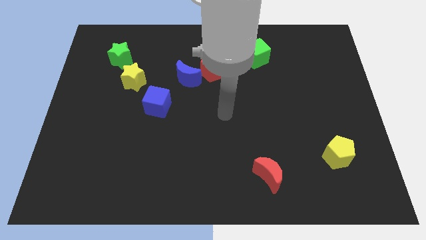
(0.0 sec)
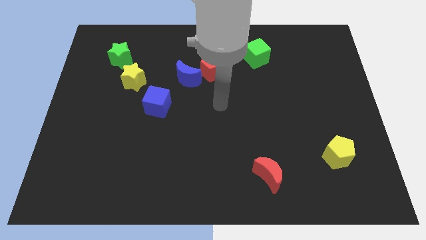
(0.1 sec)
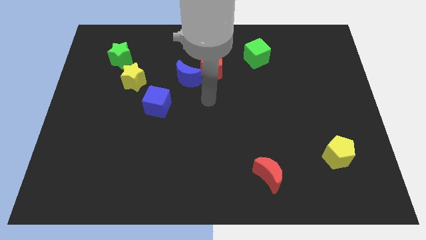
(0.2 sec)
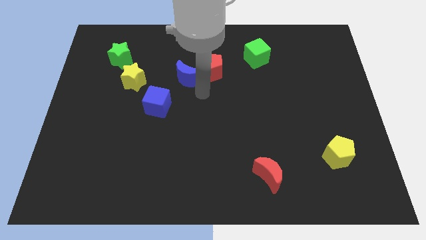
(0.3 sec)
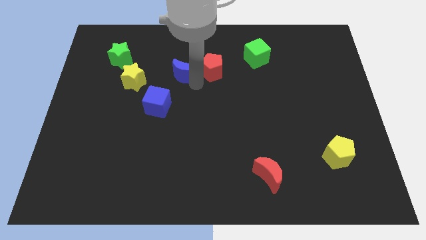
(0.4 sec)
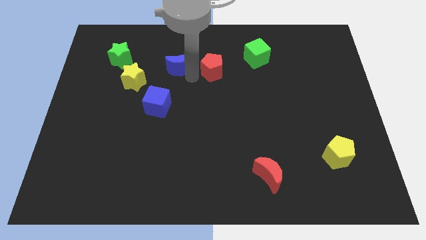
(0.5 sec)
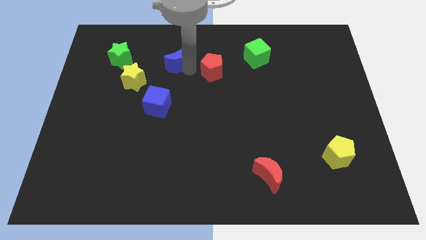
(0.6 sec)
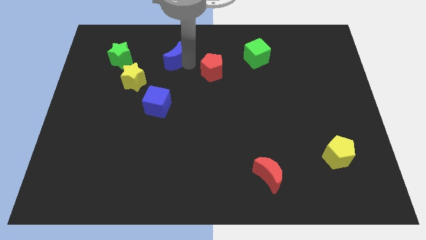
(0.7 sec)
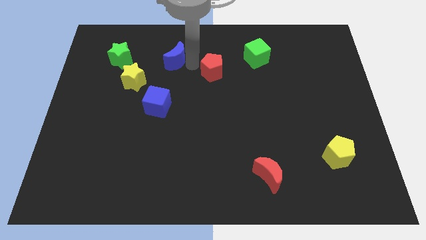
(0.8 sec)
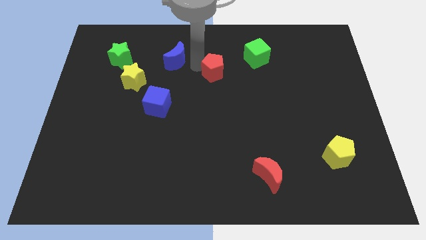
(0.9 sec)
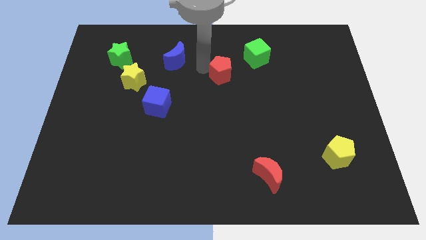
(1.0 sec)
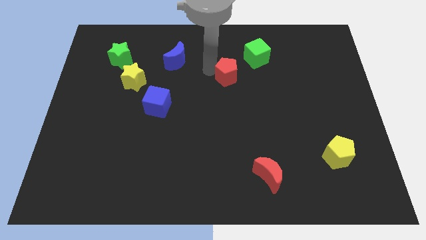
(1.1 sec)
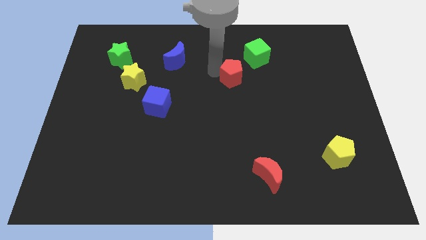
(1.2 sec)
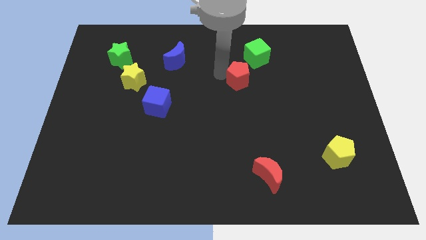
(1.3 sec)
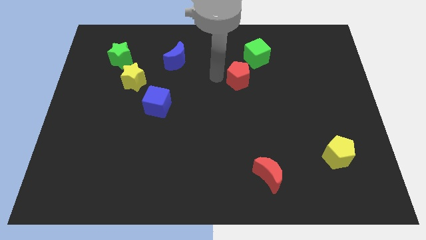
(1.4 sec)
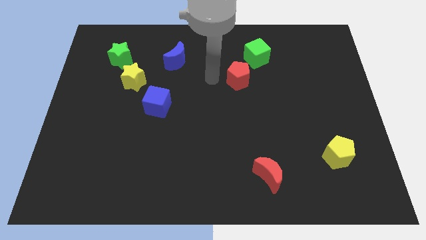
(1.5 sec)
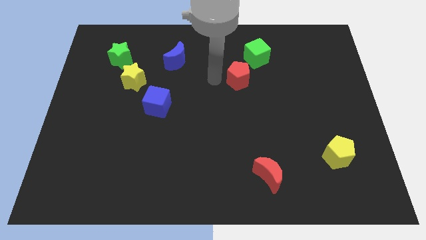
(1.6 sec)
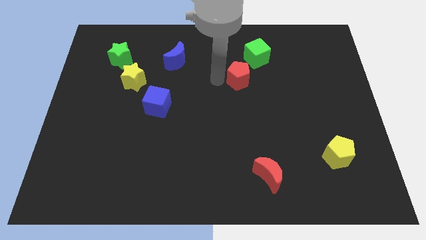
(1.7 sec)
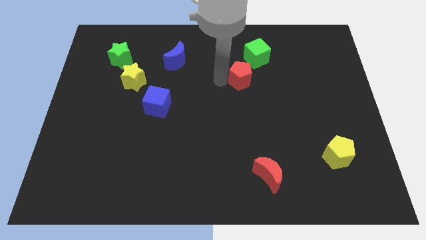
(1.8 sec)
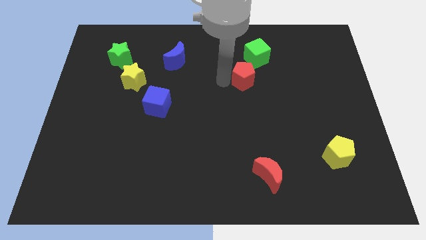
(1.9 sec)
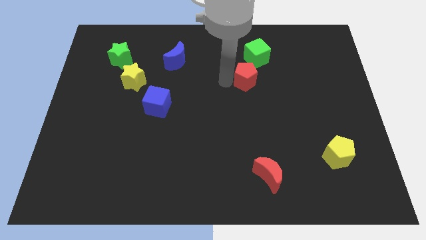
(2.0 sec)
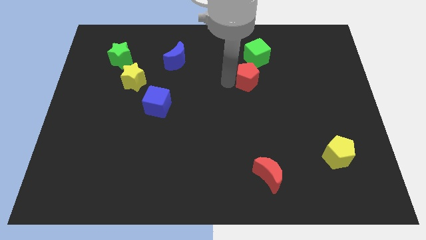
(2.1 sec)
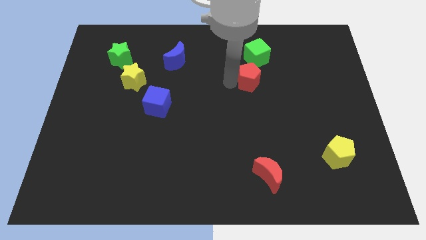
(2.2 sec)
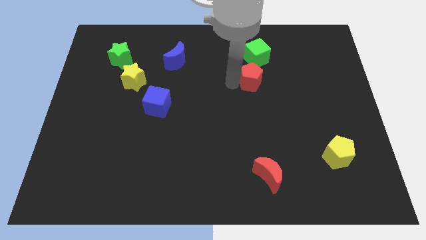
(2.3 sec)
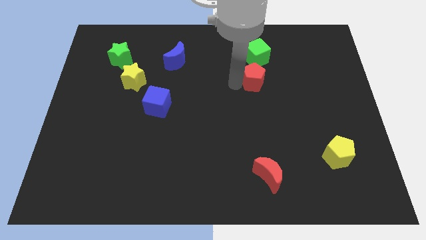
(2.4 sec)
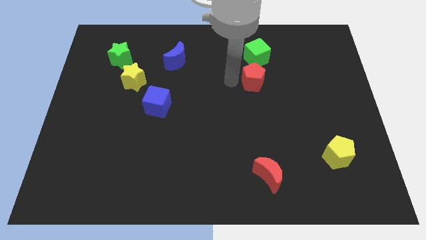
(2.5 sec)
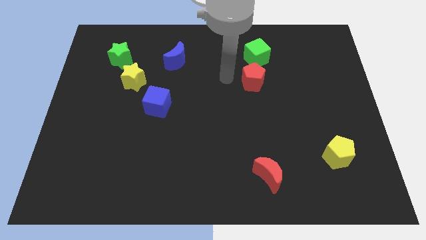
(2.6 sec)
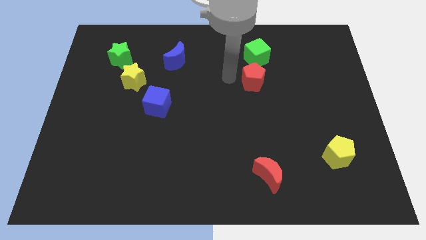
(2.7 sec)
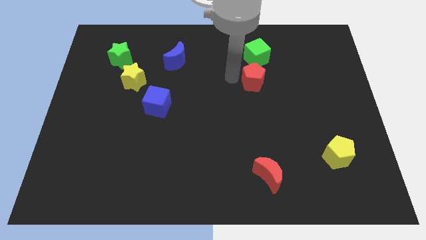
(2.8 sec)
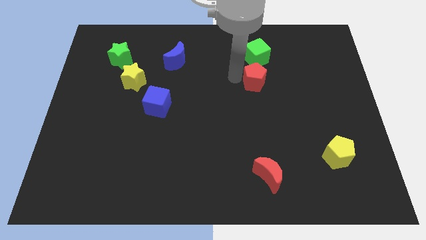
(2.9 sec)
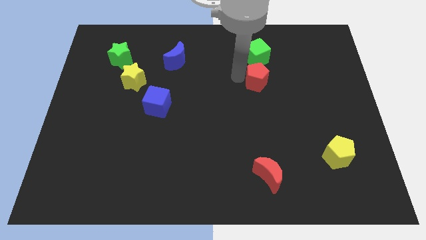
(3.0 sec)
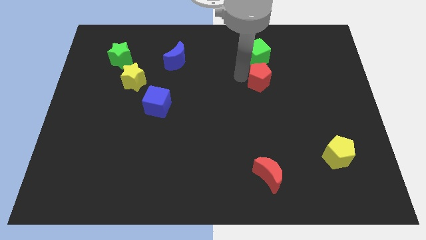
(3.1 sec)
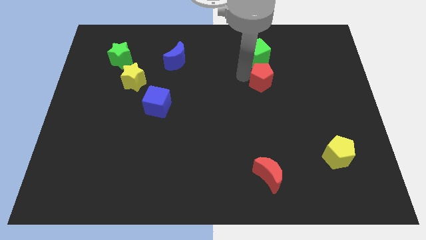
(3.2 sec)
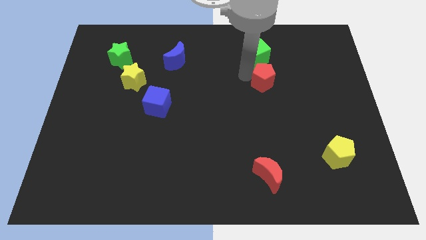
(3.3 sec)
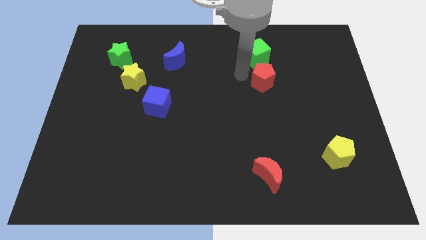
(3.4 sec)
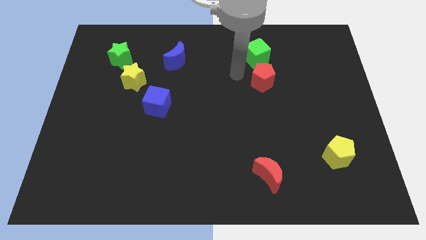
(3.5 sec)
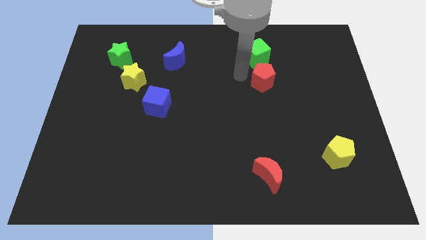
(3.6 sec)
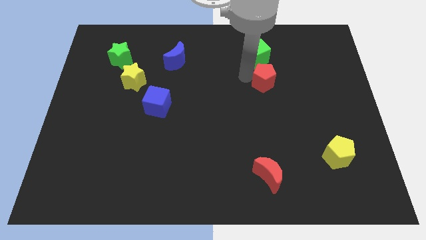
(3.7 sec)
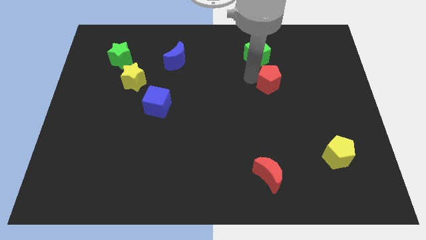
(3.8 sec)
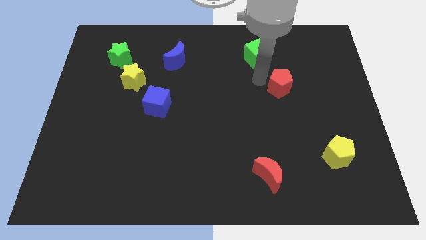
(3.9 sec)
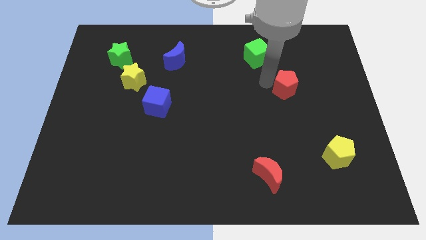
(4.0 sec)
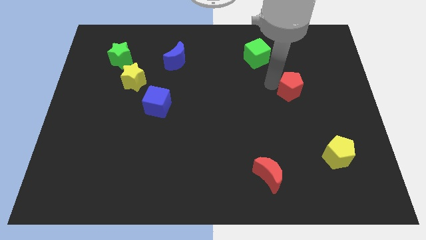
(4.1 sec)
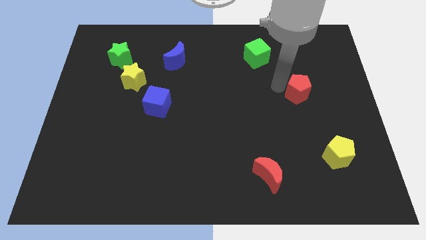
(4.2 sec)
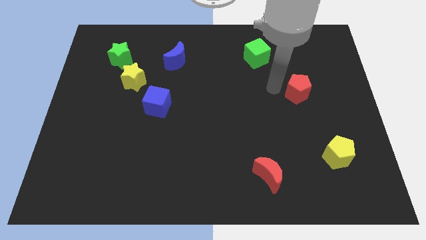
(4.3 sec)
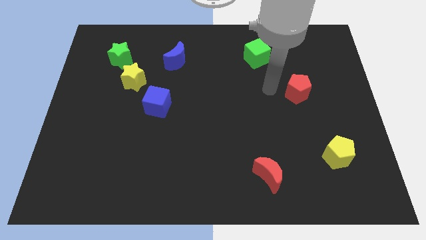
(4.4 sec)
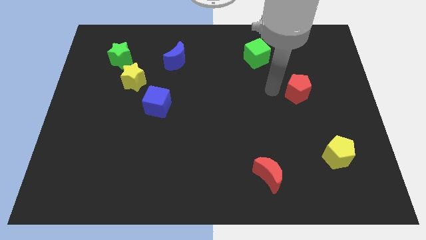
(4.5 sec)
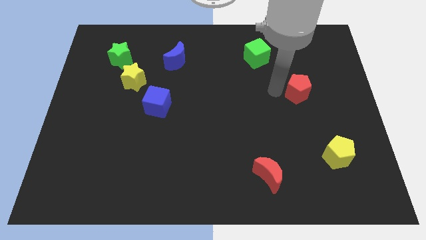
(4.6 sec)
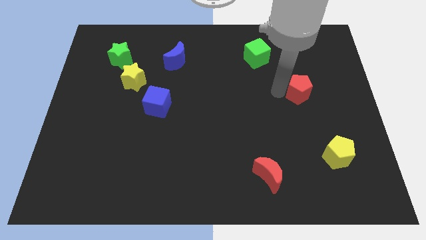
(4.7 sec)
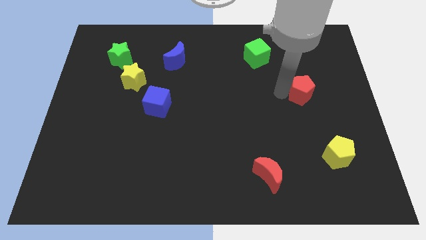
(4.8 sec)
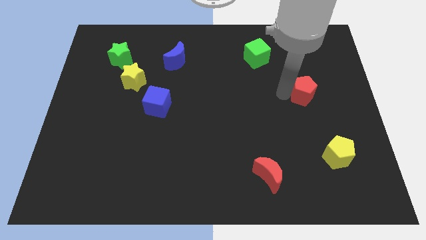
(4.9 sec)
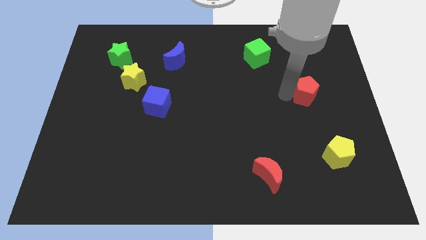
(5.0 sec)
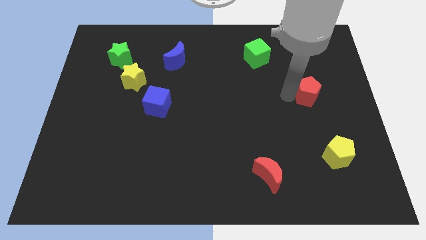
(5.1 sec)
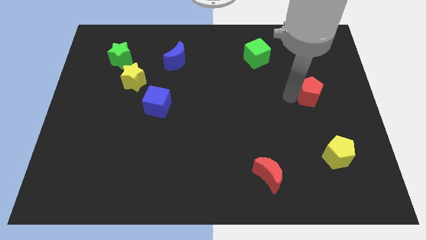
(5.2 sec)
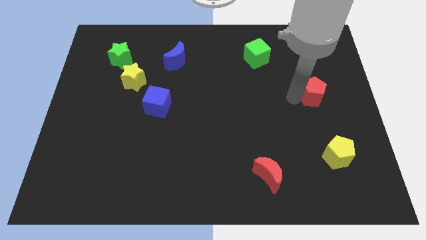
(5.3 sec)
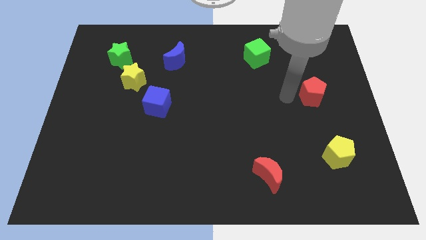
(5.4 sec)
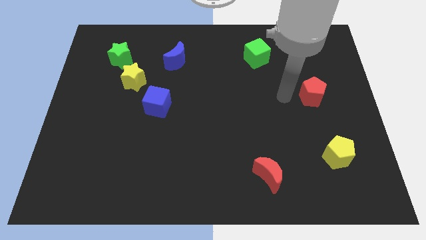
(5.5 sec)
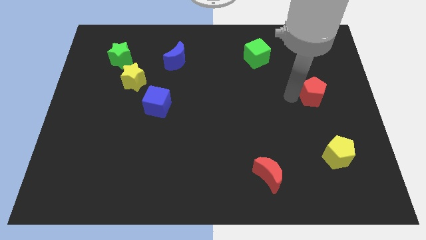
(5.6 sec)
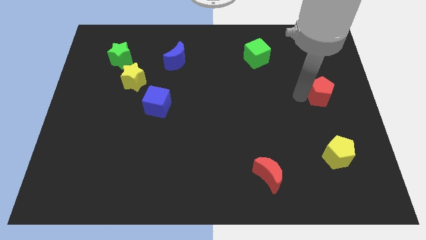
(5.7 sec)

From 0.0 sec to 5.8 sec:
put the red pentagon to the center right

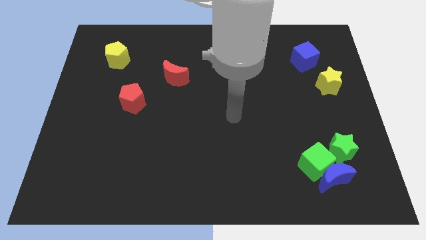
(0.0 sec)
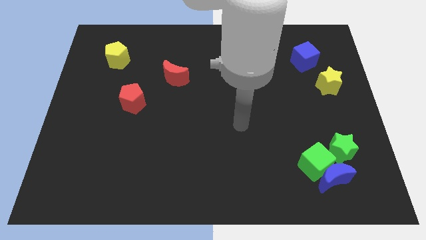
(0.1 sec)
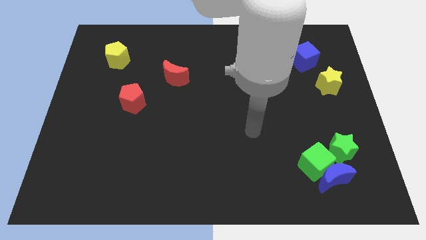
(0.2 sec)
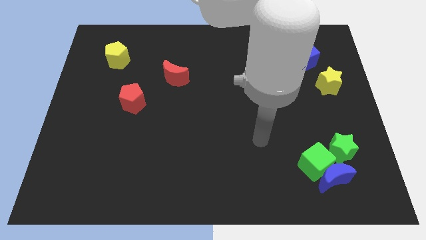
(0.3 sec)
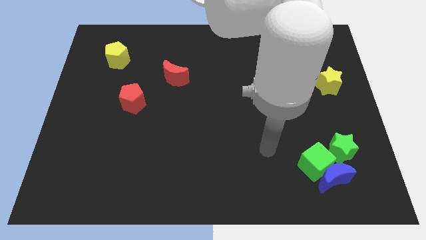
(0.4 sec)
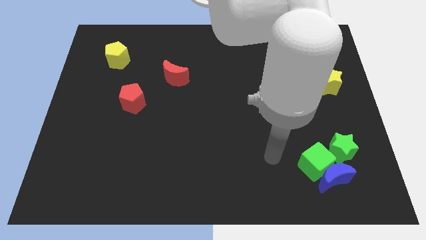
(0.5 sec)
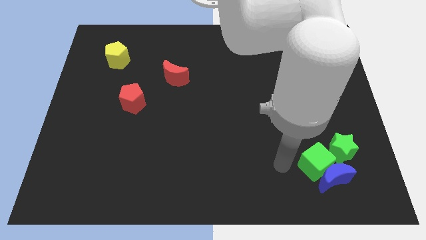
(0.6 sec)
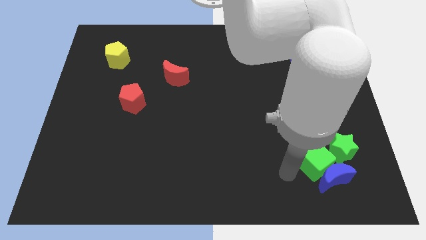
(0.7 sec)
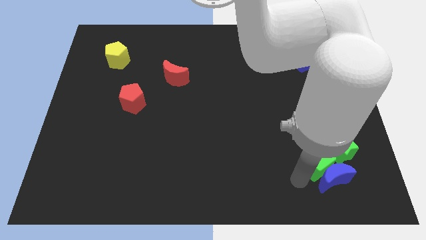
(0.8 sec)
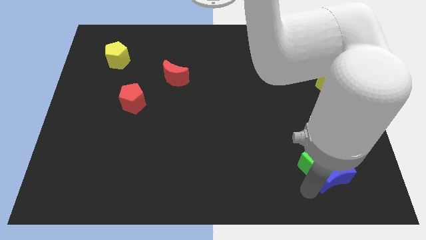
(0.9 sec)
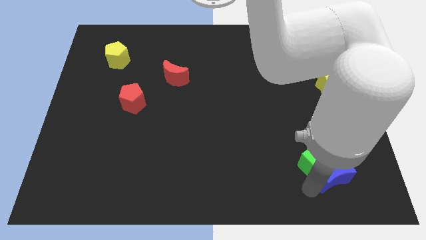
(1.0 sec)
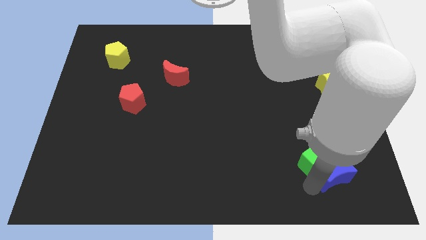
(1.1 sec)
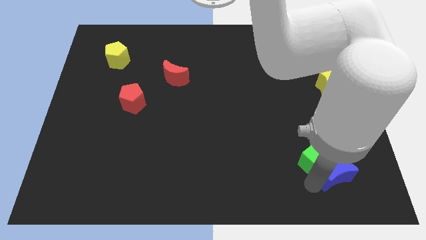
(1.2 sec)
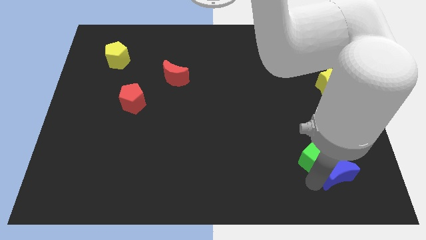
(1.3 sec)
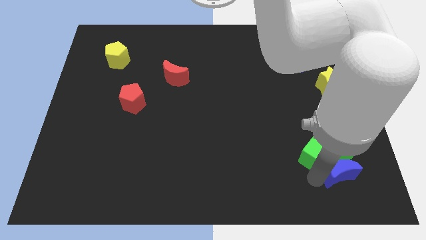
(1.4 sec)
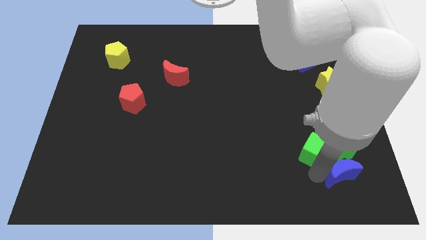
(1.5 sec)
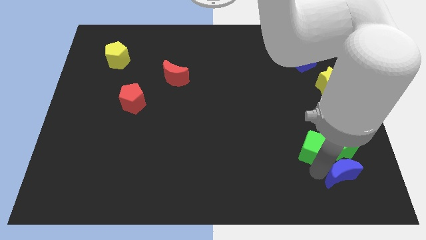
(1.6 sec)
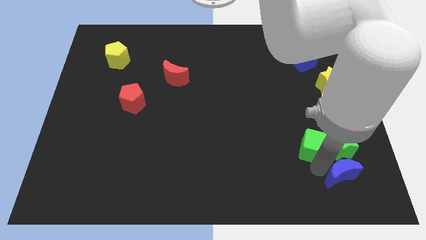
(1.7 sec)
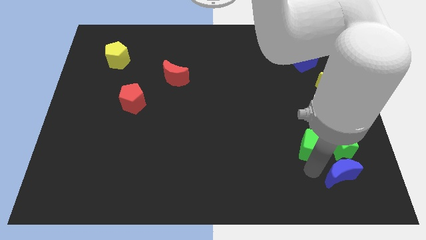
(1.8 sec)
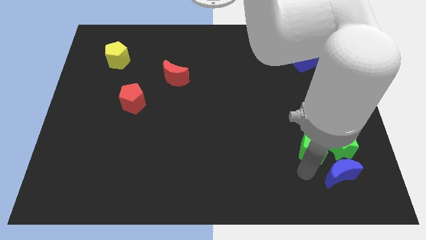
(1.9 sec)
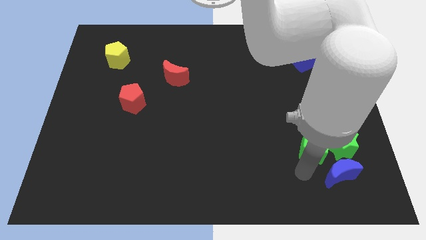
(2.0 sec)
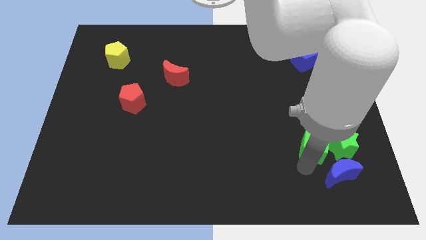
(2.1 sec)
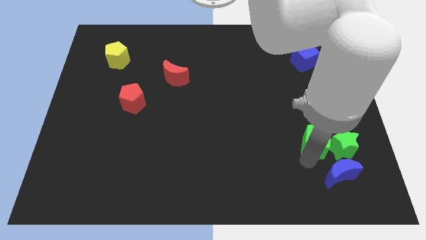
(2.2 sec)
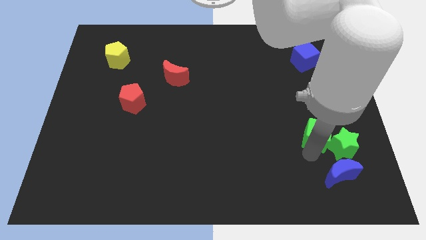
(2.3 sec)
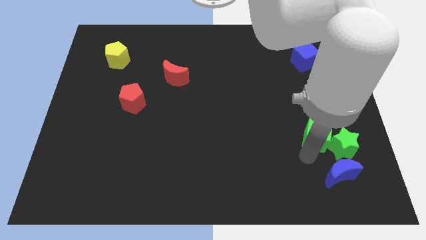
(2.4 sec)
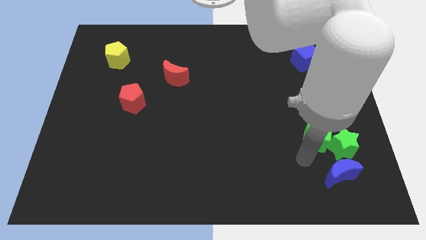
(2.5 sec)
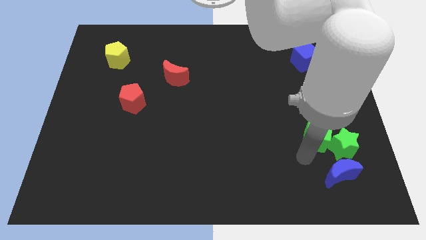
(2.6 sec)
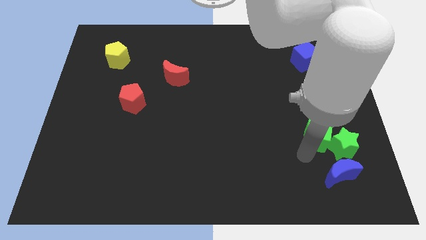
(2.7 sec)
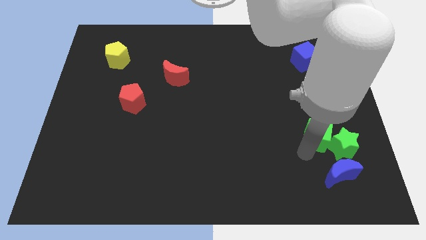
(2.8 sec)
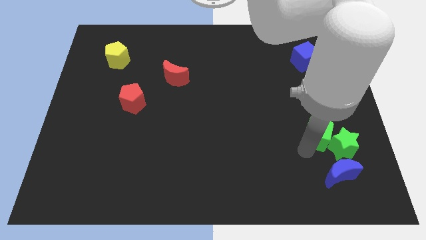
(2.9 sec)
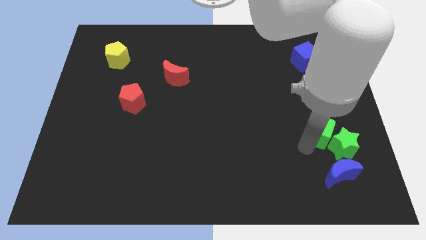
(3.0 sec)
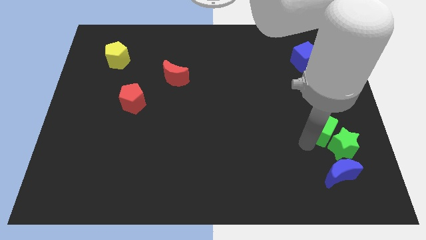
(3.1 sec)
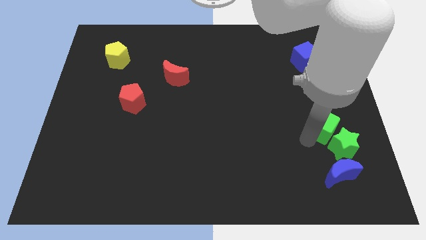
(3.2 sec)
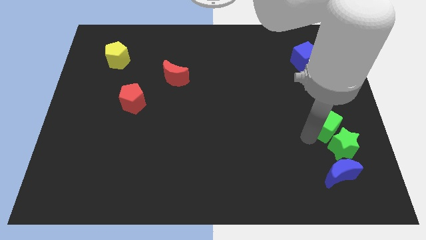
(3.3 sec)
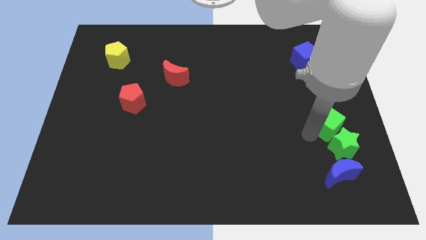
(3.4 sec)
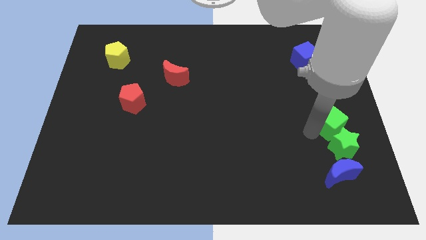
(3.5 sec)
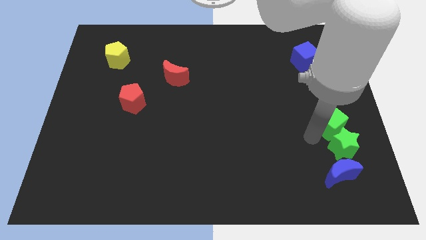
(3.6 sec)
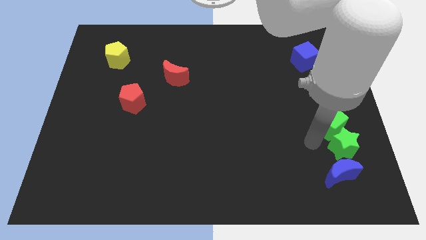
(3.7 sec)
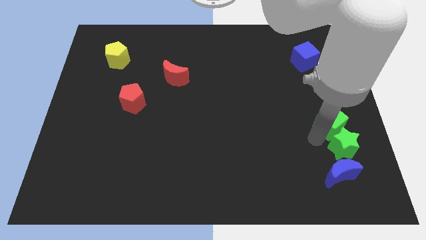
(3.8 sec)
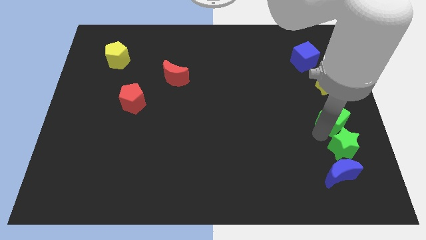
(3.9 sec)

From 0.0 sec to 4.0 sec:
put the green cube to the right side
